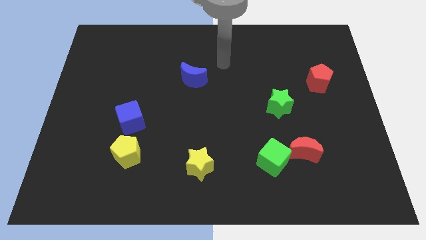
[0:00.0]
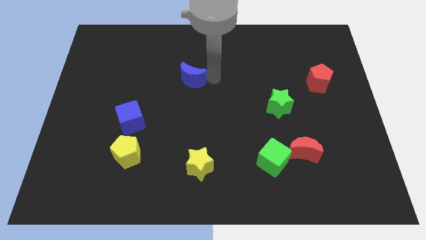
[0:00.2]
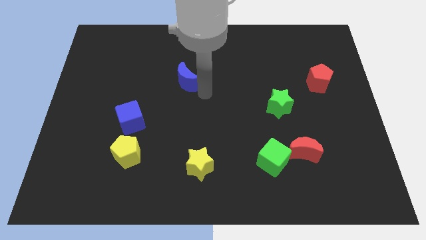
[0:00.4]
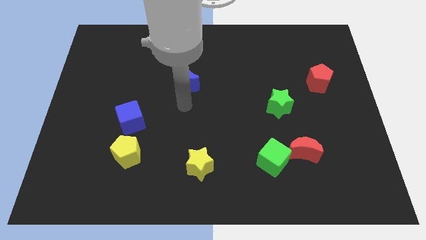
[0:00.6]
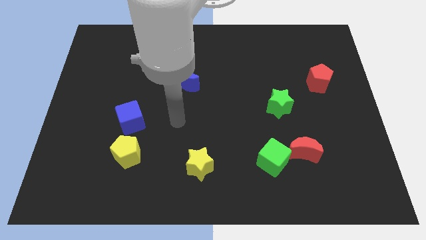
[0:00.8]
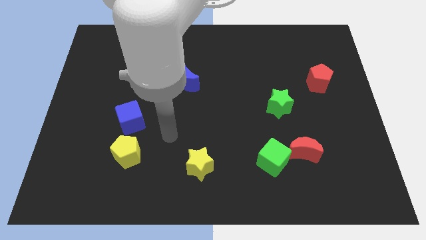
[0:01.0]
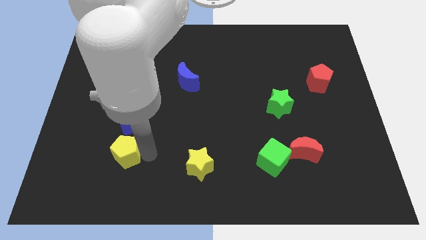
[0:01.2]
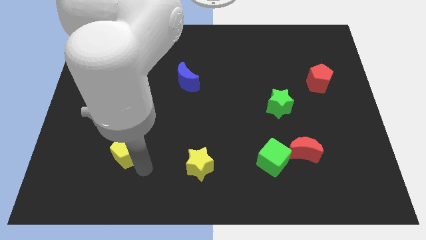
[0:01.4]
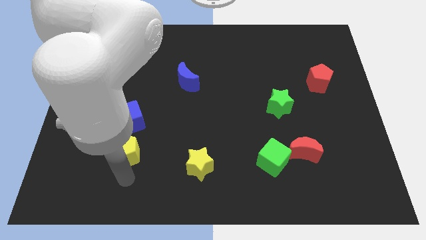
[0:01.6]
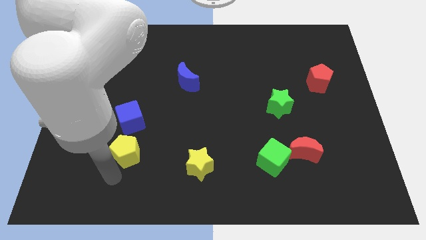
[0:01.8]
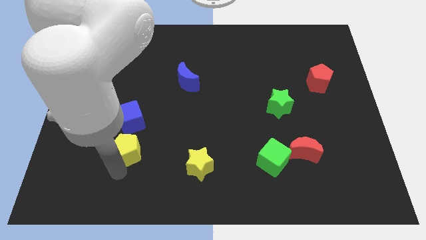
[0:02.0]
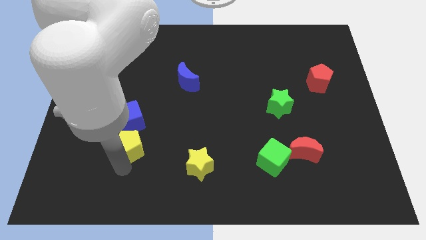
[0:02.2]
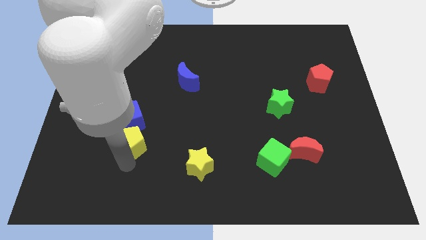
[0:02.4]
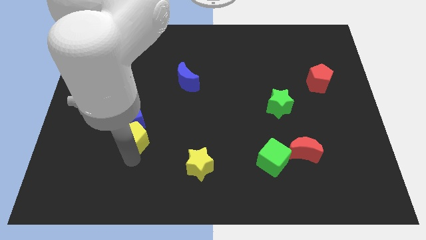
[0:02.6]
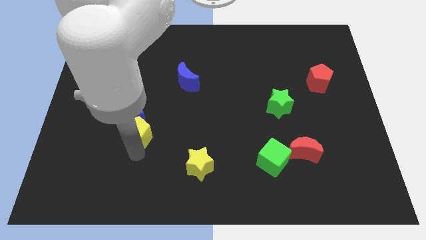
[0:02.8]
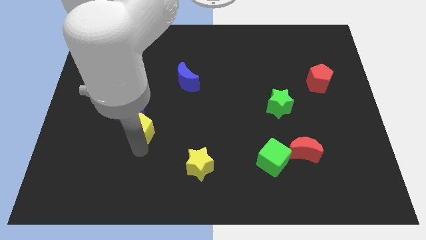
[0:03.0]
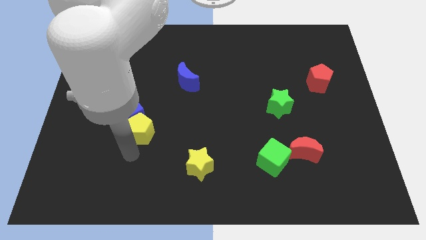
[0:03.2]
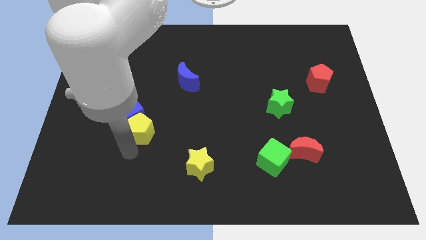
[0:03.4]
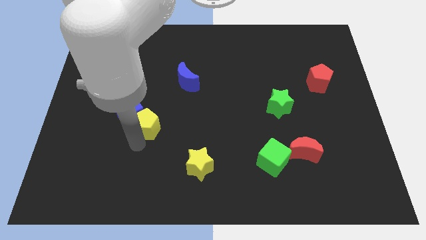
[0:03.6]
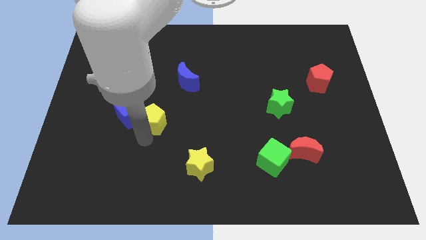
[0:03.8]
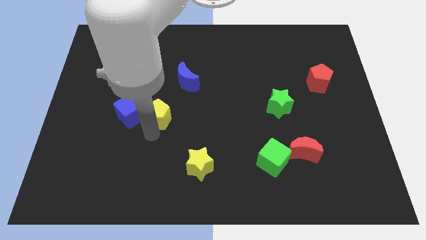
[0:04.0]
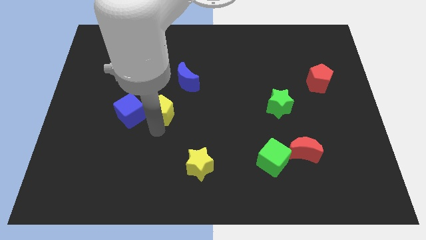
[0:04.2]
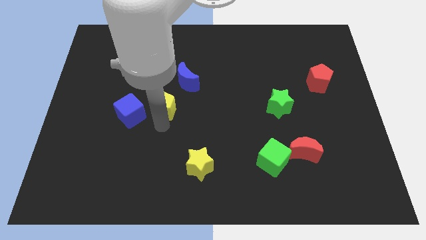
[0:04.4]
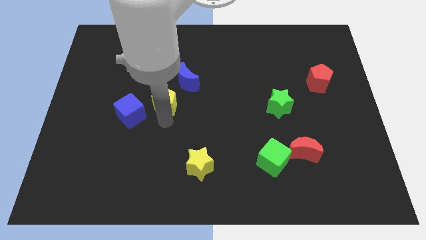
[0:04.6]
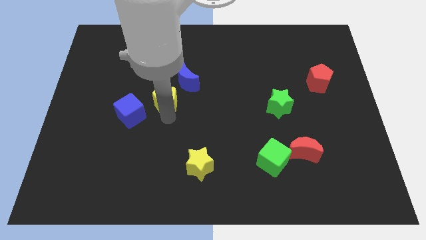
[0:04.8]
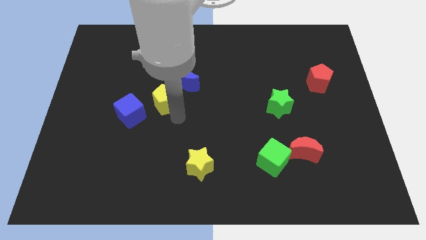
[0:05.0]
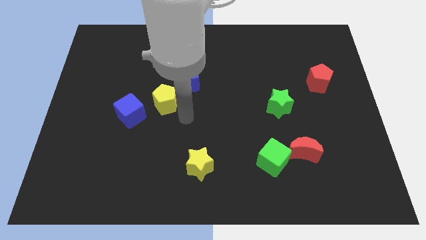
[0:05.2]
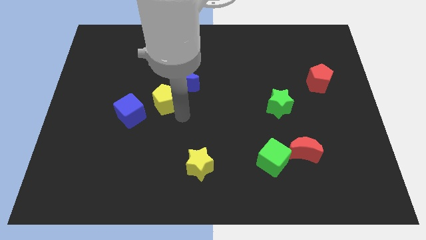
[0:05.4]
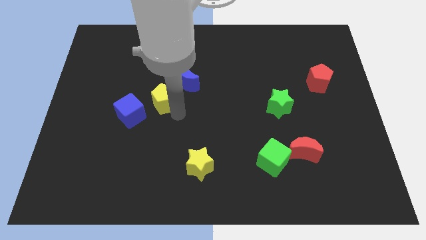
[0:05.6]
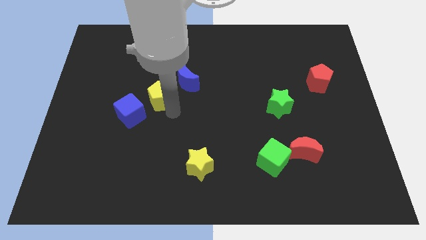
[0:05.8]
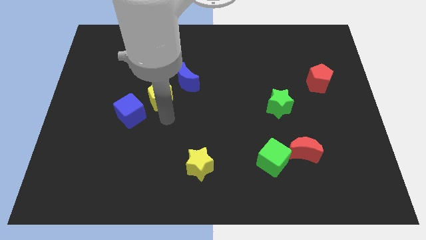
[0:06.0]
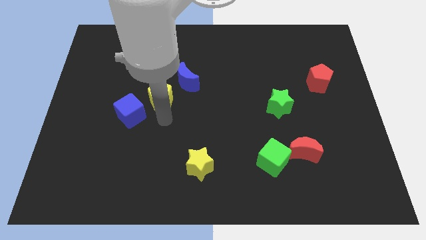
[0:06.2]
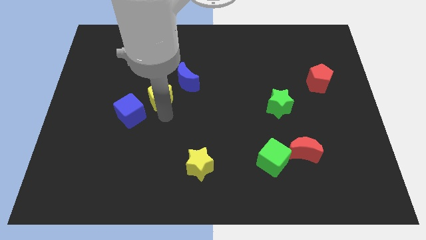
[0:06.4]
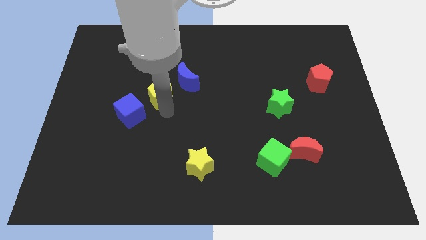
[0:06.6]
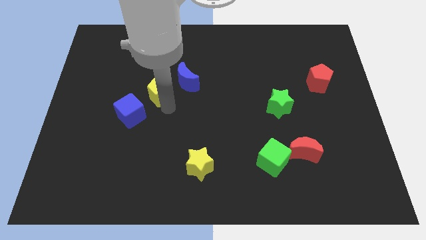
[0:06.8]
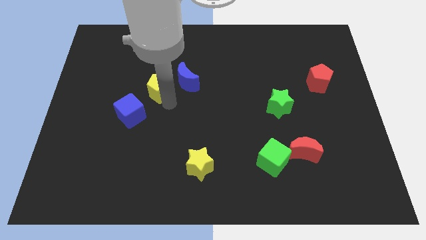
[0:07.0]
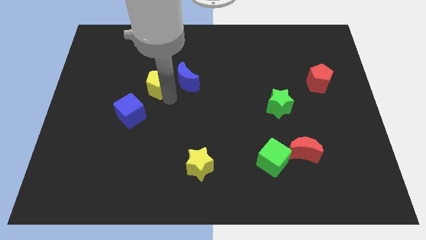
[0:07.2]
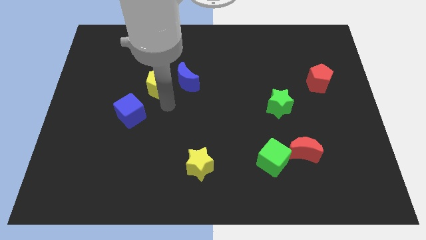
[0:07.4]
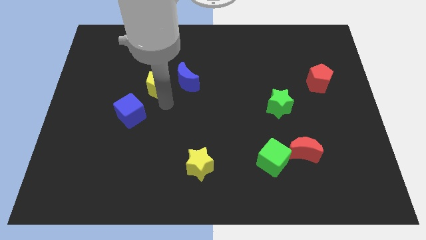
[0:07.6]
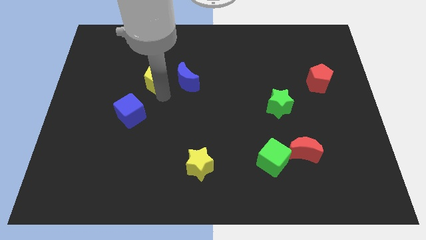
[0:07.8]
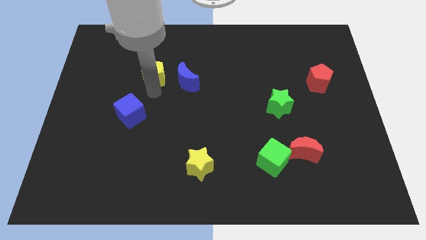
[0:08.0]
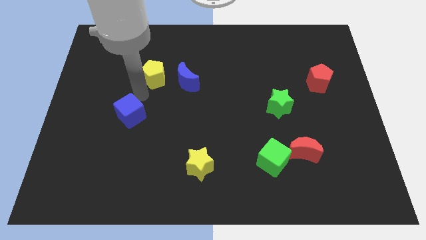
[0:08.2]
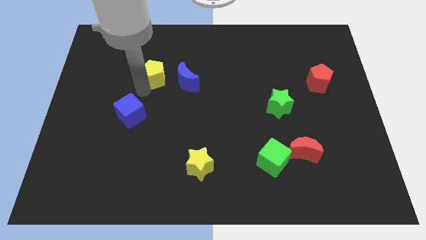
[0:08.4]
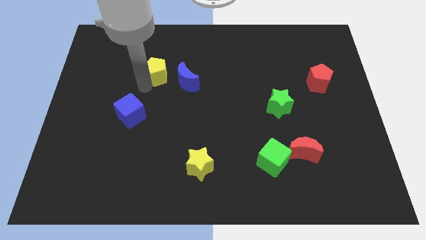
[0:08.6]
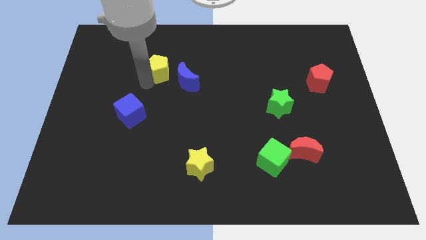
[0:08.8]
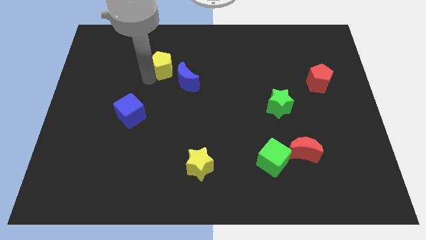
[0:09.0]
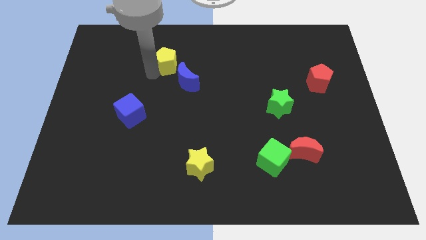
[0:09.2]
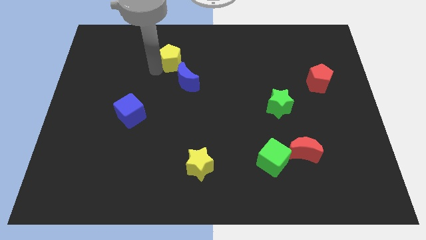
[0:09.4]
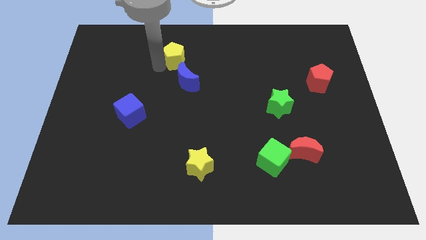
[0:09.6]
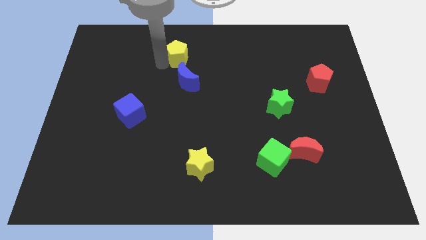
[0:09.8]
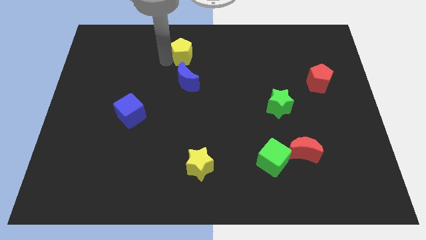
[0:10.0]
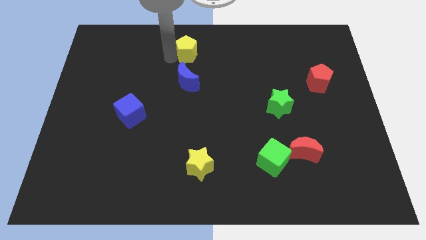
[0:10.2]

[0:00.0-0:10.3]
slide the yellow pentagon to the towards your base

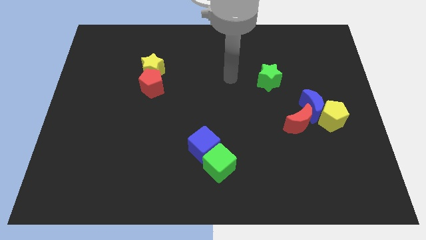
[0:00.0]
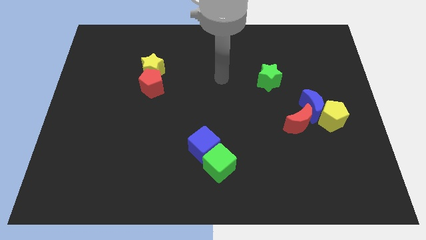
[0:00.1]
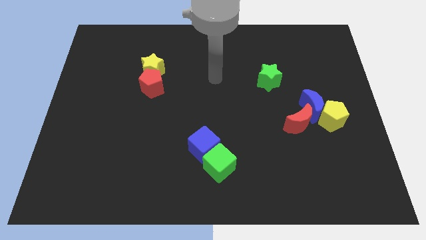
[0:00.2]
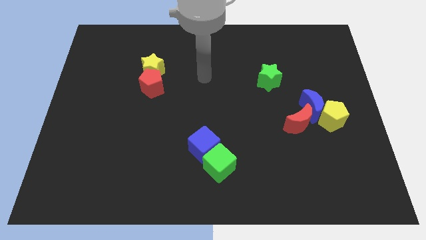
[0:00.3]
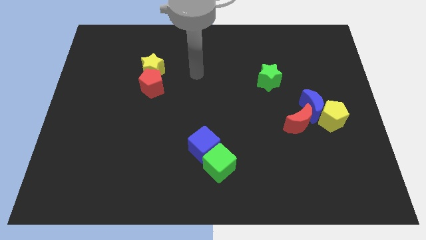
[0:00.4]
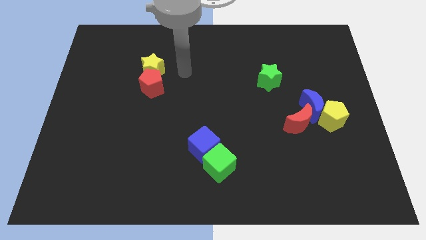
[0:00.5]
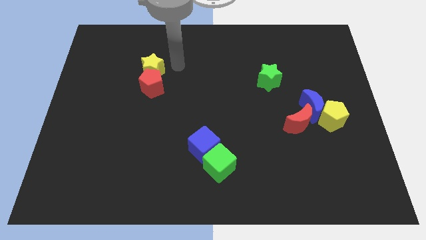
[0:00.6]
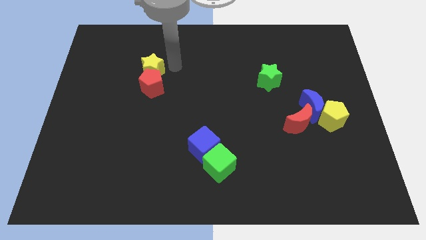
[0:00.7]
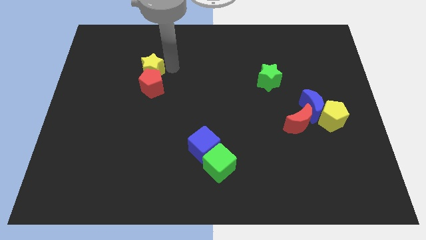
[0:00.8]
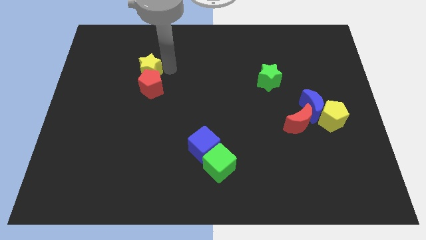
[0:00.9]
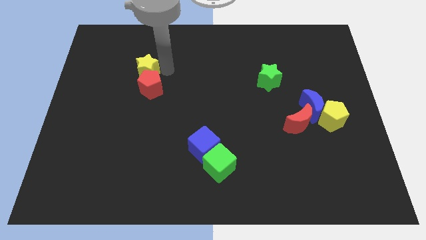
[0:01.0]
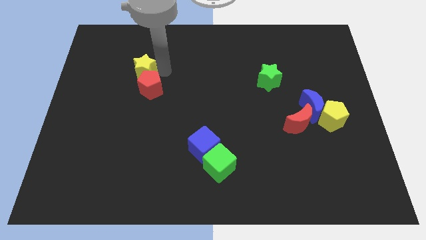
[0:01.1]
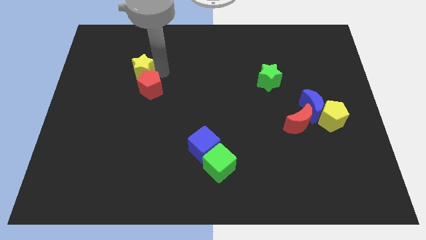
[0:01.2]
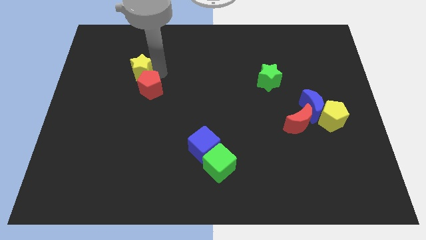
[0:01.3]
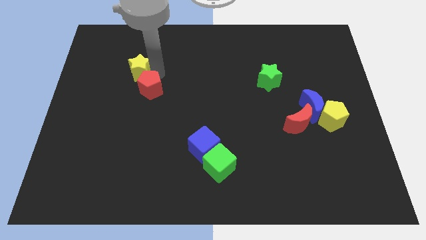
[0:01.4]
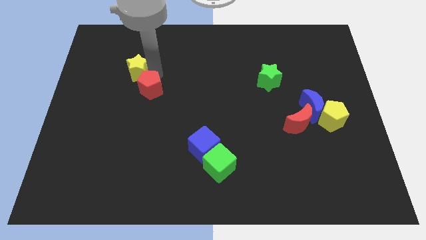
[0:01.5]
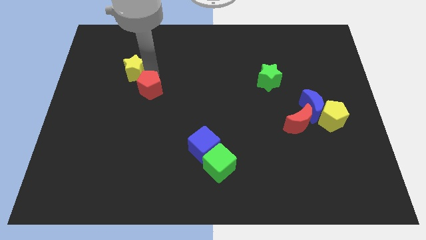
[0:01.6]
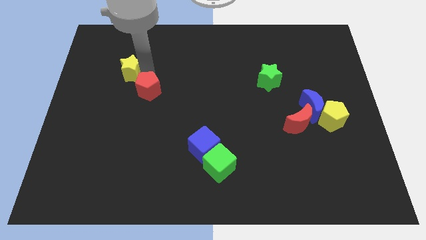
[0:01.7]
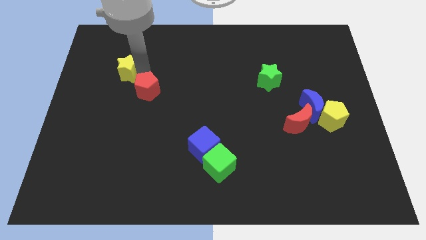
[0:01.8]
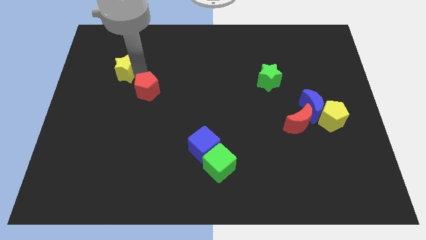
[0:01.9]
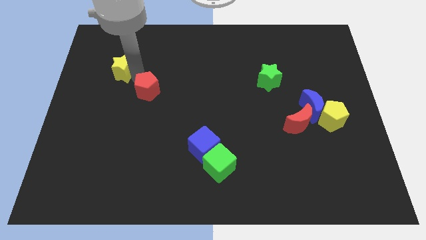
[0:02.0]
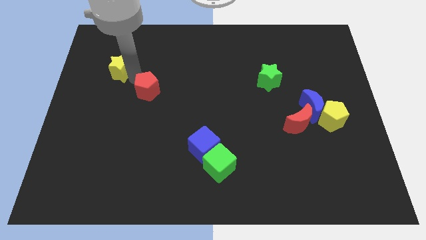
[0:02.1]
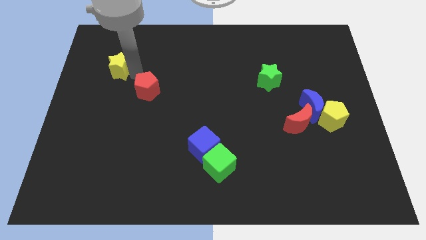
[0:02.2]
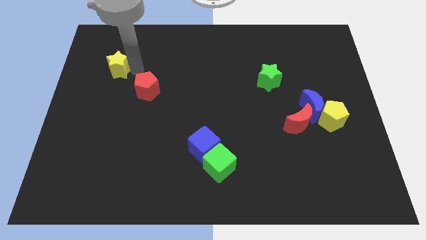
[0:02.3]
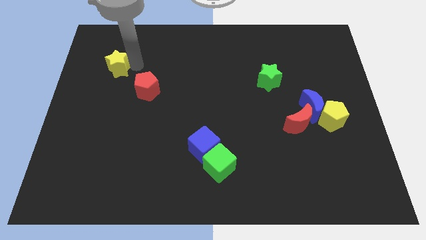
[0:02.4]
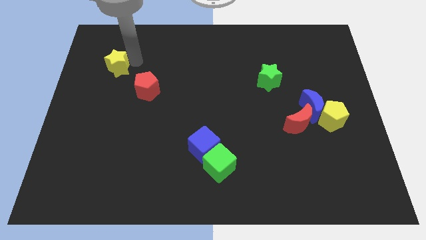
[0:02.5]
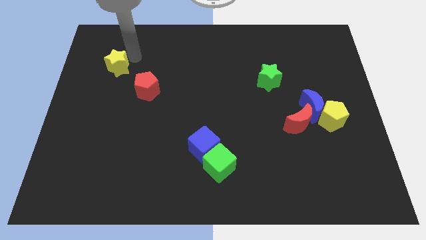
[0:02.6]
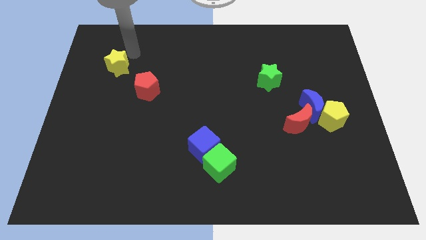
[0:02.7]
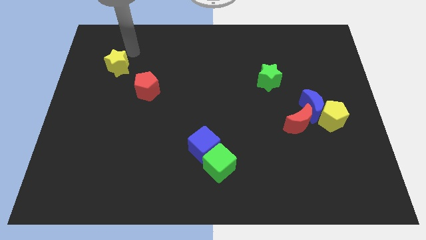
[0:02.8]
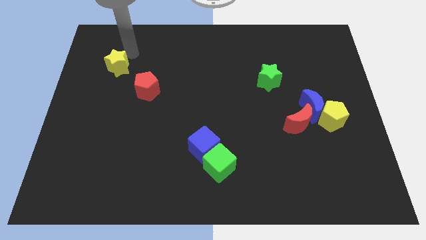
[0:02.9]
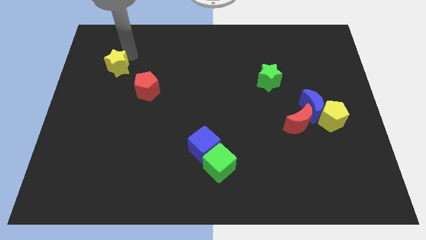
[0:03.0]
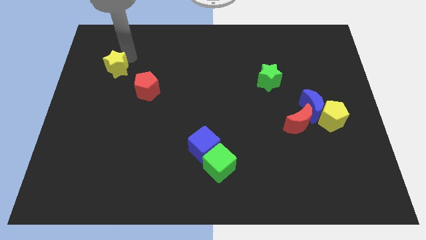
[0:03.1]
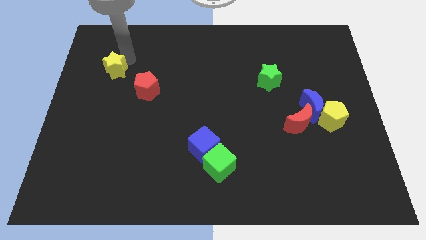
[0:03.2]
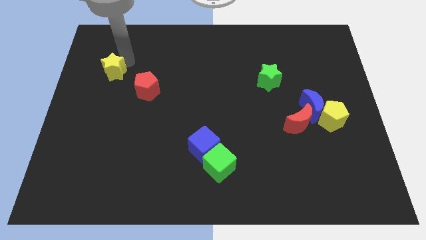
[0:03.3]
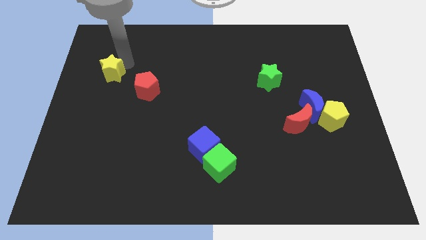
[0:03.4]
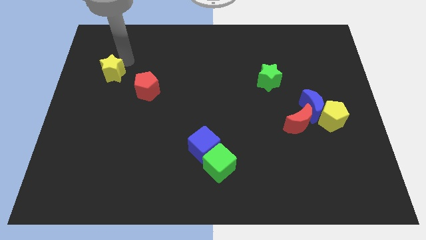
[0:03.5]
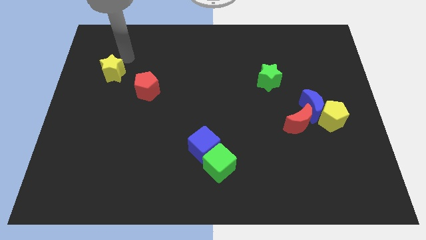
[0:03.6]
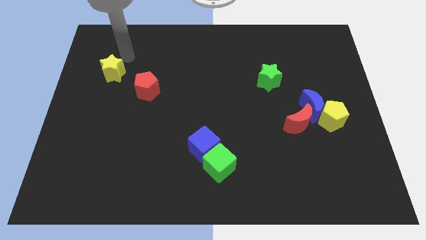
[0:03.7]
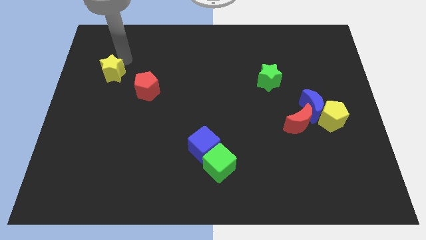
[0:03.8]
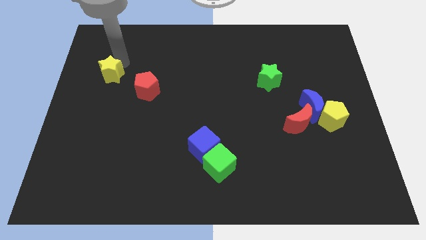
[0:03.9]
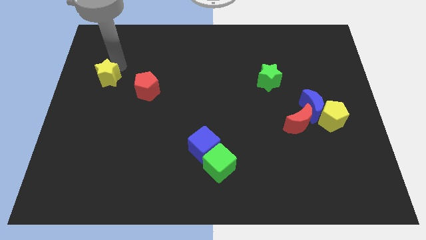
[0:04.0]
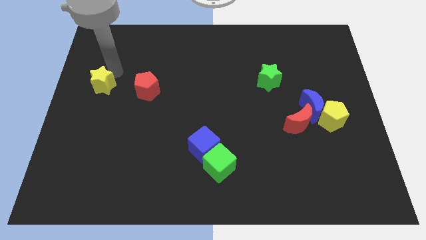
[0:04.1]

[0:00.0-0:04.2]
move the yellow star to the center left
